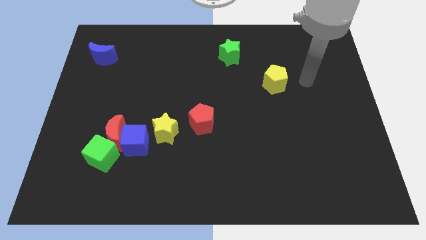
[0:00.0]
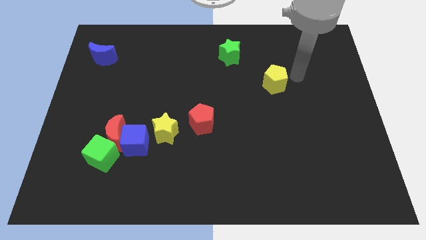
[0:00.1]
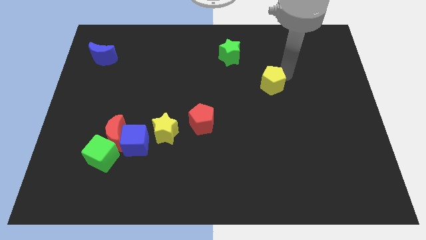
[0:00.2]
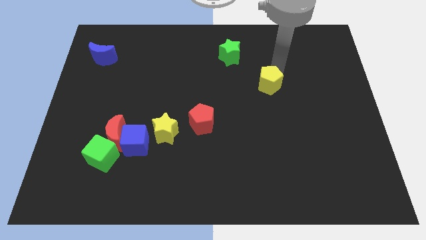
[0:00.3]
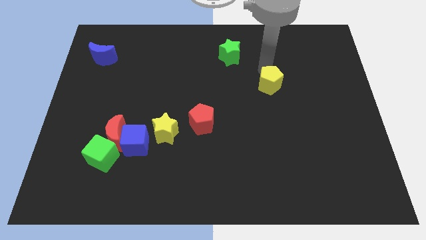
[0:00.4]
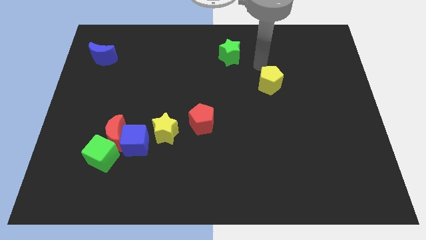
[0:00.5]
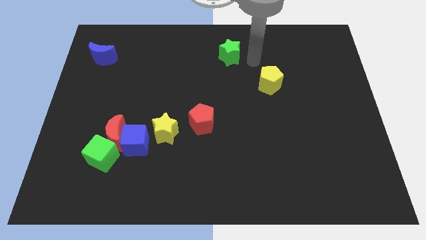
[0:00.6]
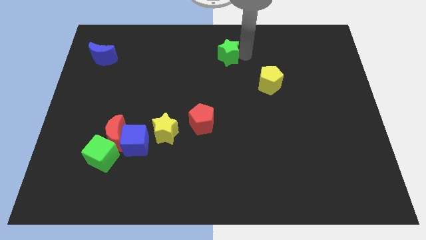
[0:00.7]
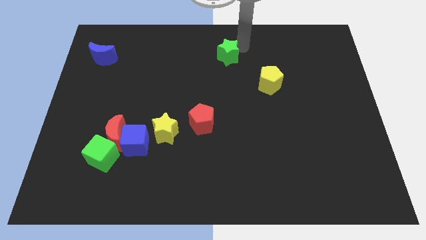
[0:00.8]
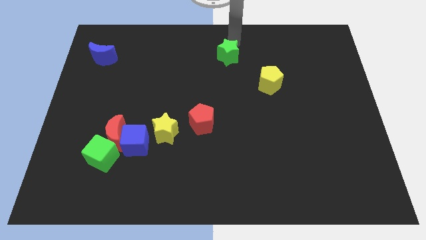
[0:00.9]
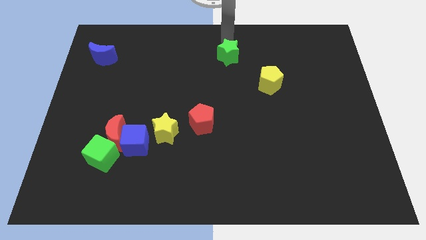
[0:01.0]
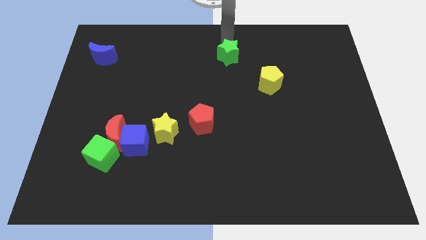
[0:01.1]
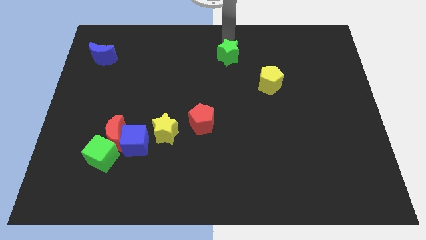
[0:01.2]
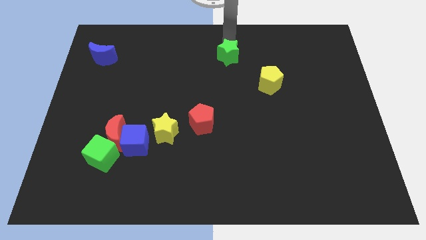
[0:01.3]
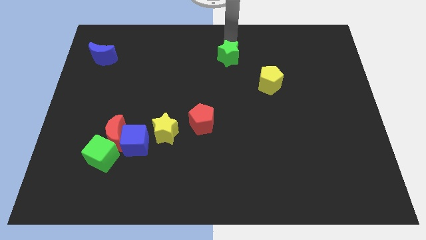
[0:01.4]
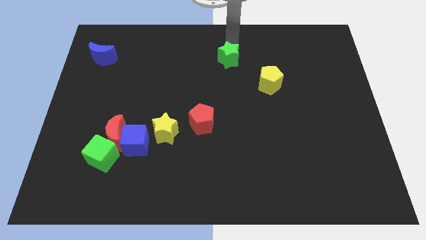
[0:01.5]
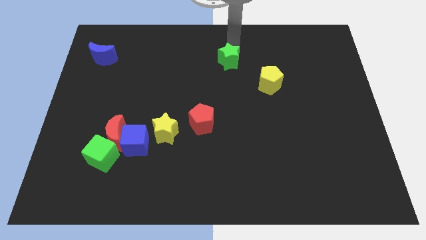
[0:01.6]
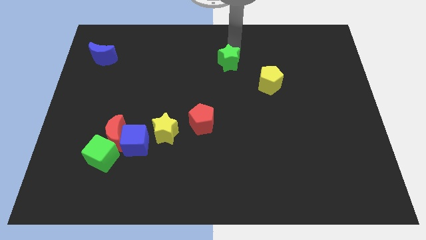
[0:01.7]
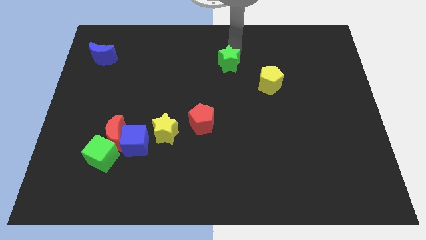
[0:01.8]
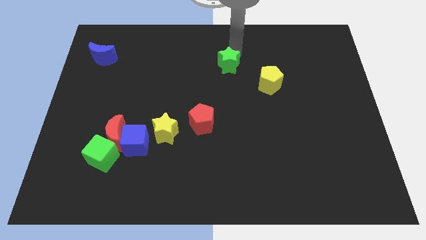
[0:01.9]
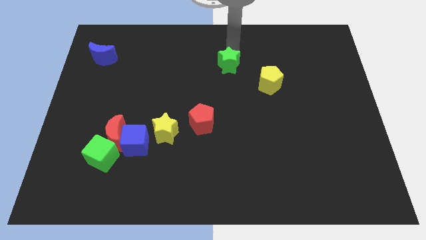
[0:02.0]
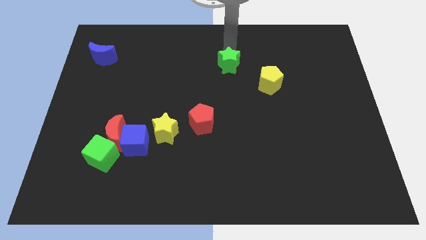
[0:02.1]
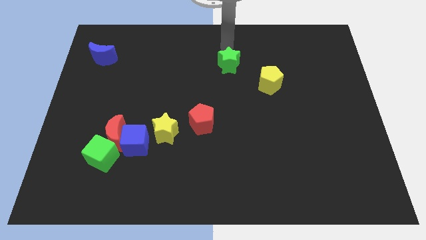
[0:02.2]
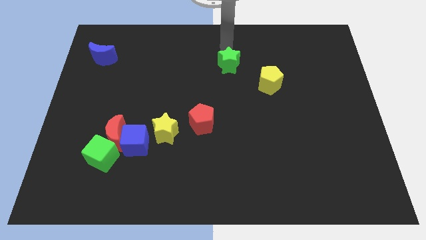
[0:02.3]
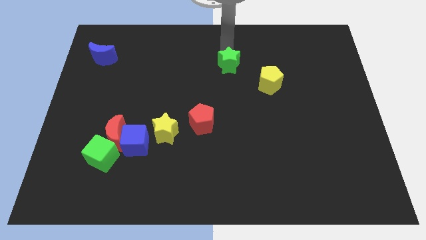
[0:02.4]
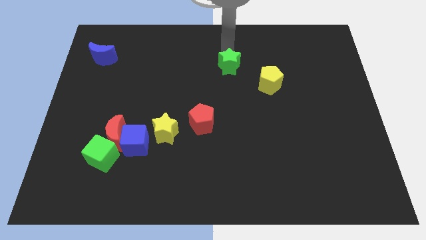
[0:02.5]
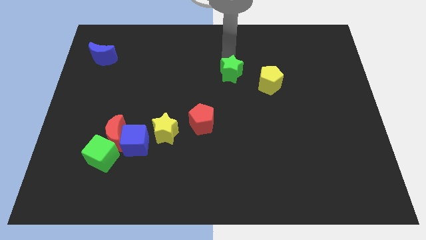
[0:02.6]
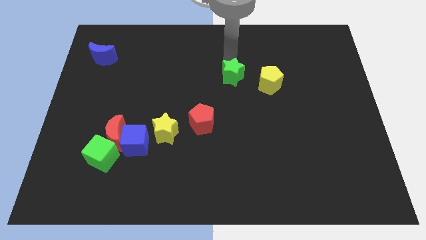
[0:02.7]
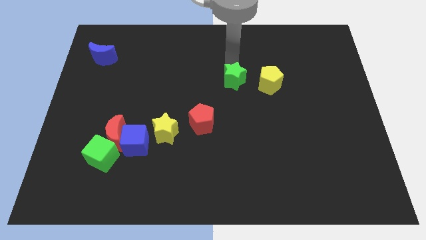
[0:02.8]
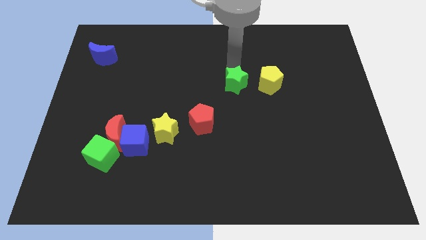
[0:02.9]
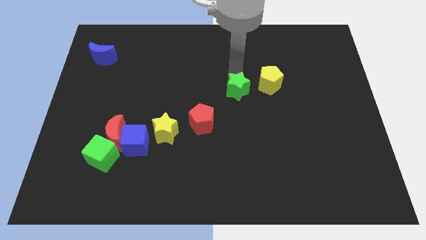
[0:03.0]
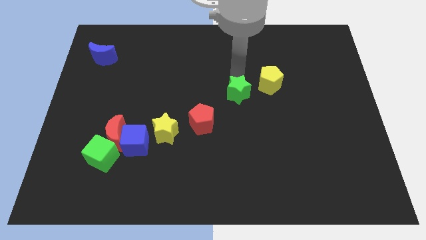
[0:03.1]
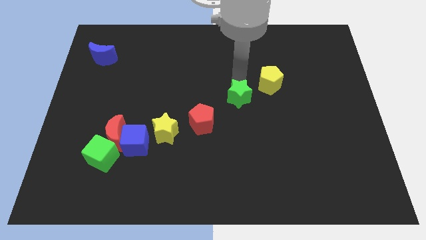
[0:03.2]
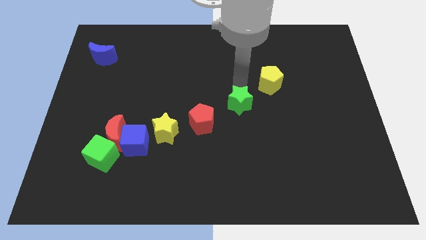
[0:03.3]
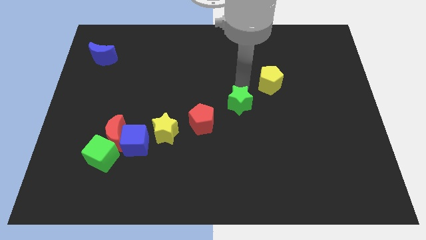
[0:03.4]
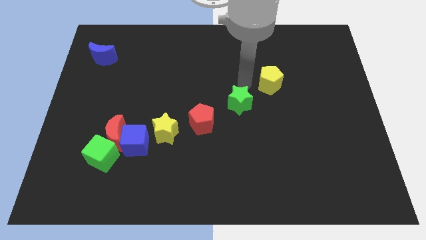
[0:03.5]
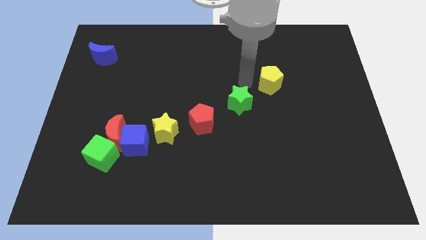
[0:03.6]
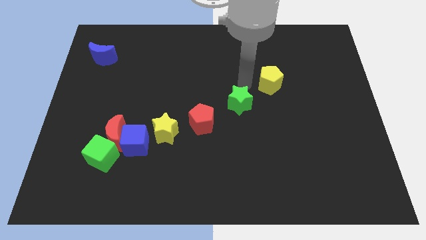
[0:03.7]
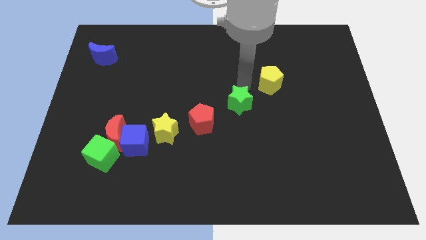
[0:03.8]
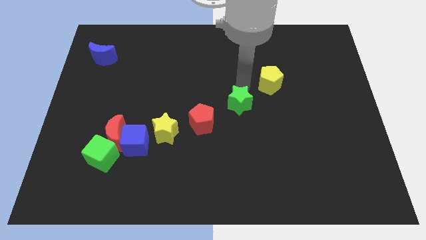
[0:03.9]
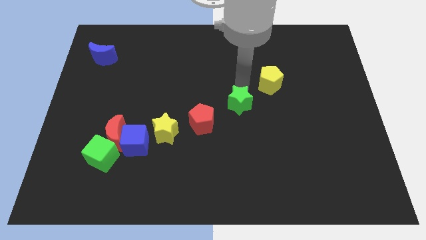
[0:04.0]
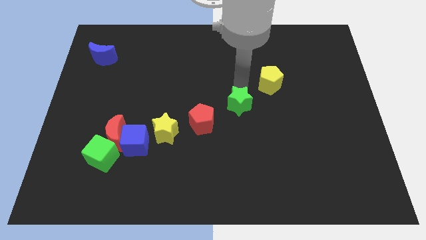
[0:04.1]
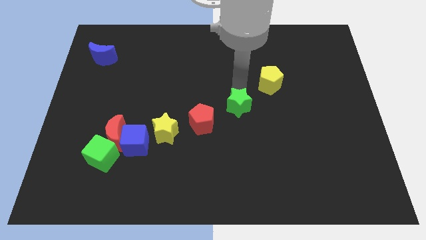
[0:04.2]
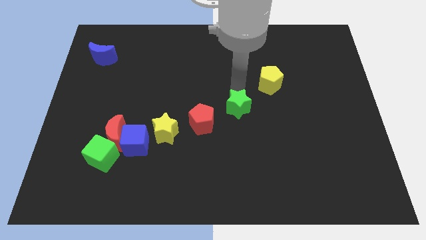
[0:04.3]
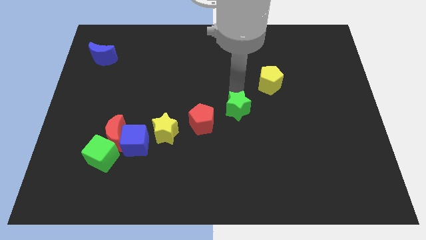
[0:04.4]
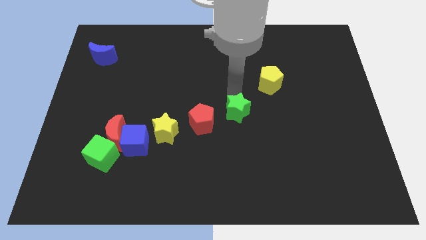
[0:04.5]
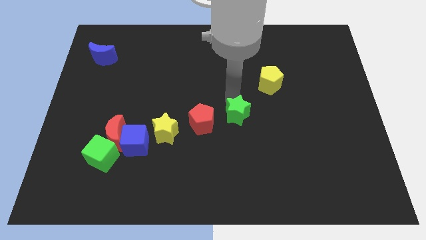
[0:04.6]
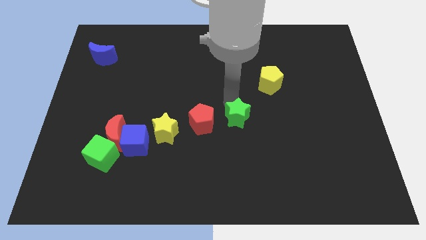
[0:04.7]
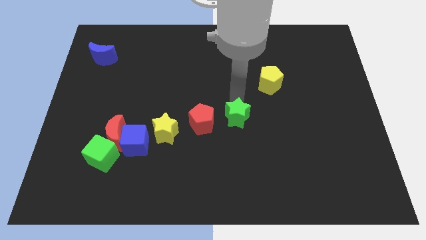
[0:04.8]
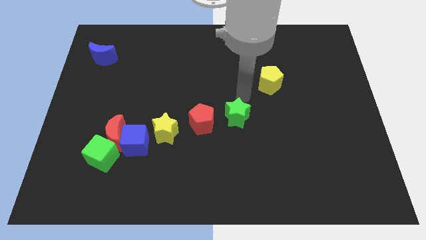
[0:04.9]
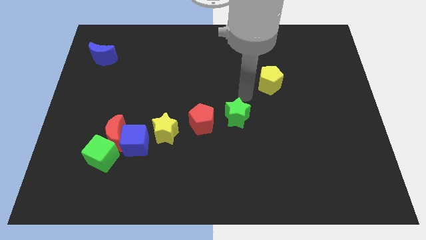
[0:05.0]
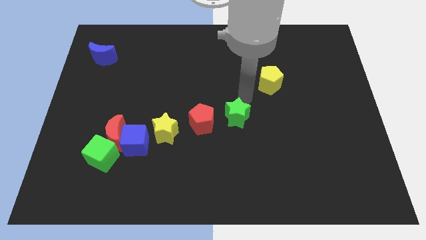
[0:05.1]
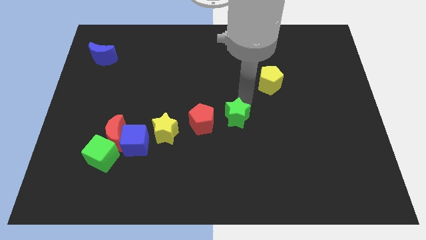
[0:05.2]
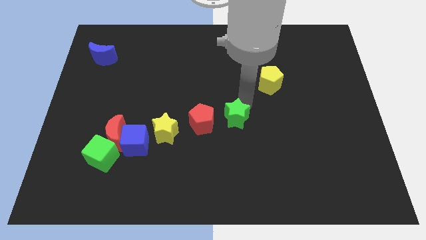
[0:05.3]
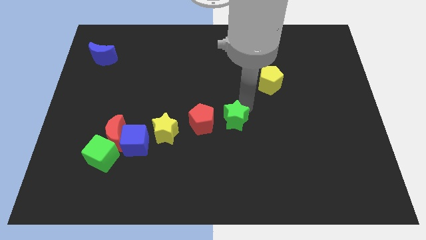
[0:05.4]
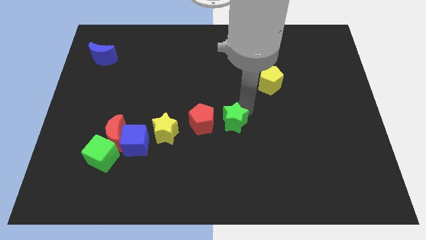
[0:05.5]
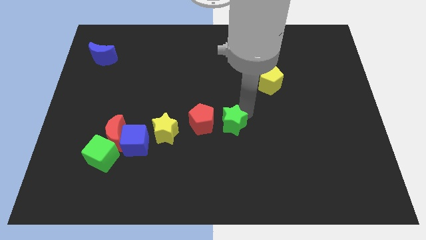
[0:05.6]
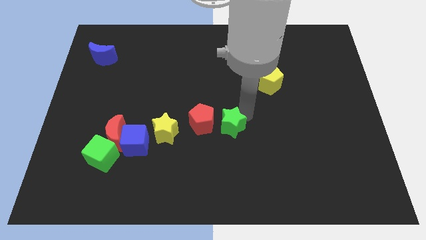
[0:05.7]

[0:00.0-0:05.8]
put the green star diagonally down and to the right of the red pentagon

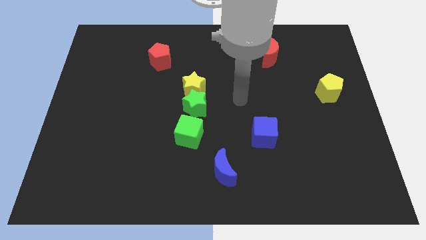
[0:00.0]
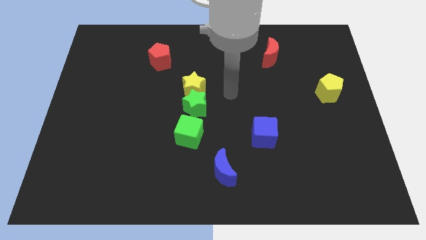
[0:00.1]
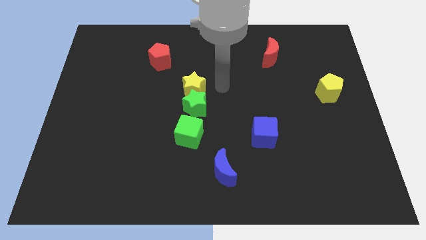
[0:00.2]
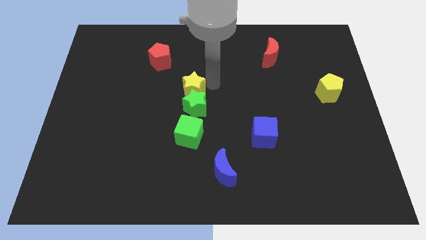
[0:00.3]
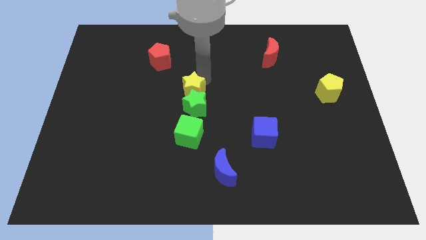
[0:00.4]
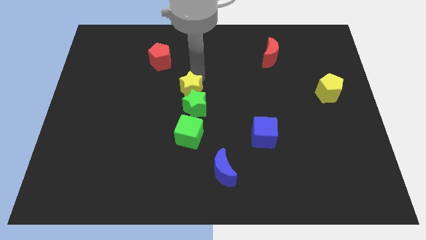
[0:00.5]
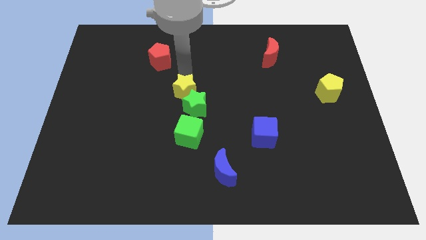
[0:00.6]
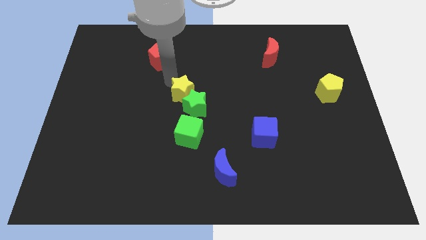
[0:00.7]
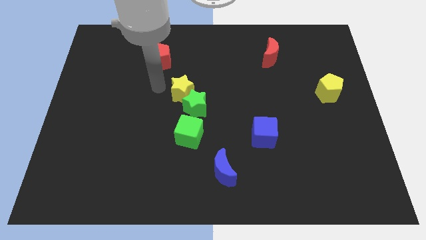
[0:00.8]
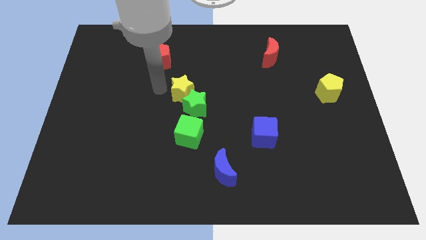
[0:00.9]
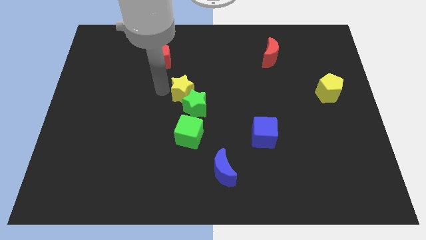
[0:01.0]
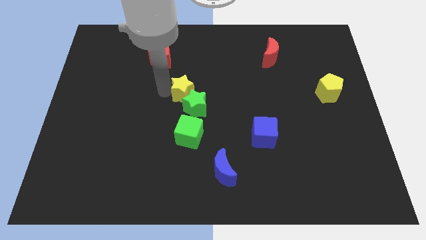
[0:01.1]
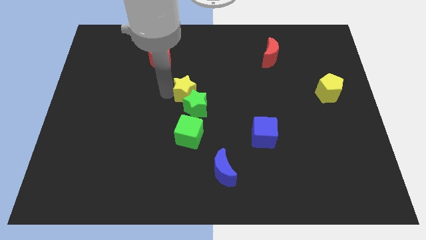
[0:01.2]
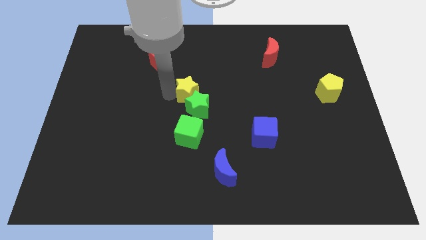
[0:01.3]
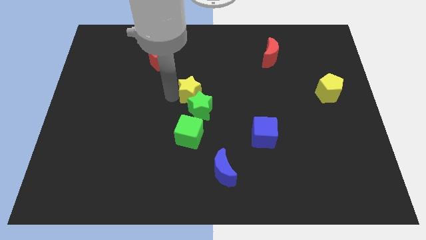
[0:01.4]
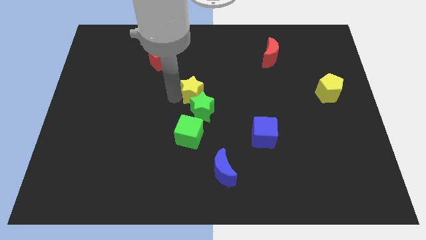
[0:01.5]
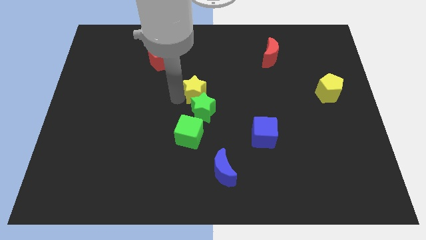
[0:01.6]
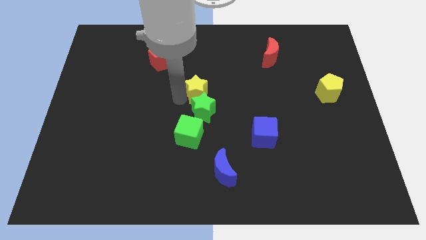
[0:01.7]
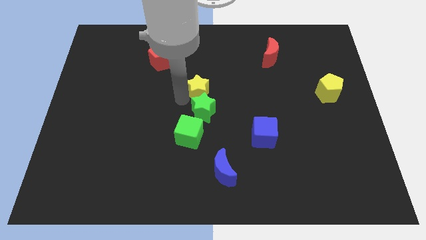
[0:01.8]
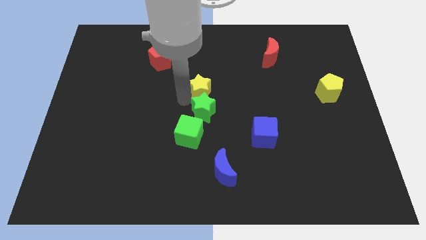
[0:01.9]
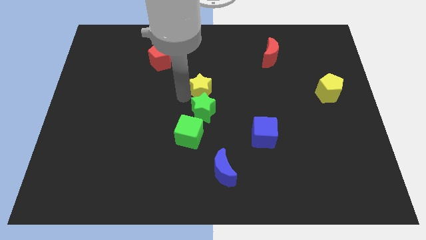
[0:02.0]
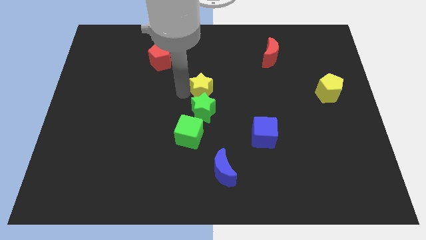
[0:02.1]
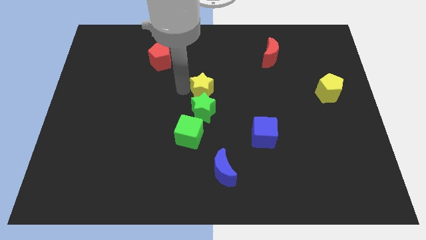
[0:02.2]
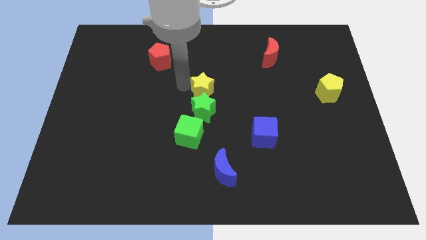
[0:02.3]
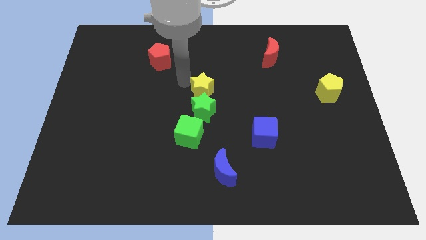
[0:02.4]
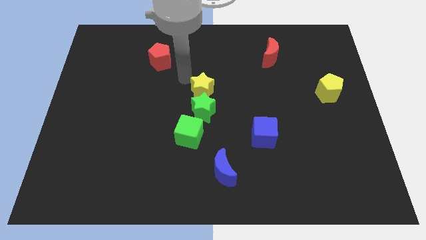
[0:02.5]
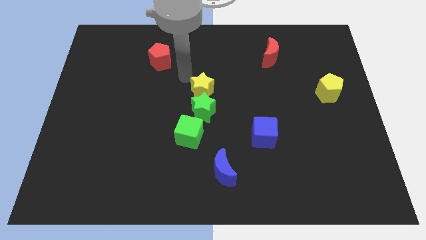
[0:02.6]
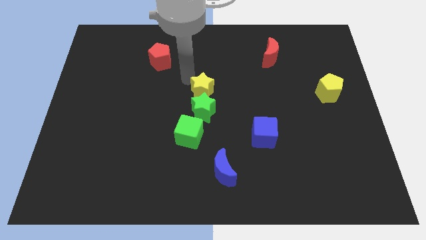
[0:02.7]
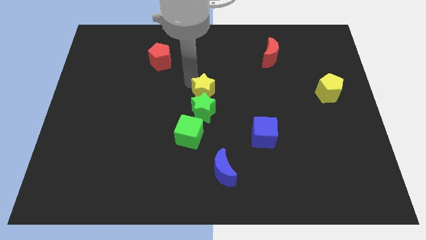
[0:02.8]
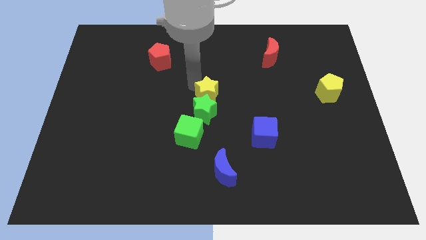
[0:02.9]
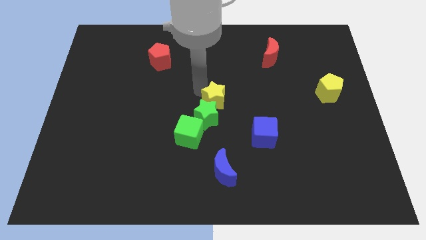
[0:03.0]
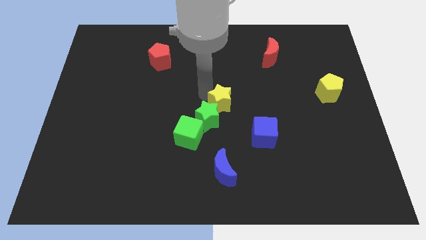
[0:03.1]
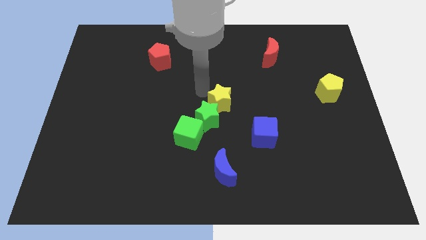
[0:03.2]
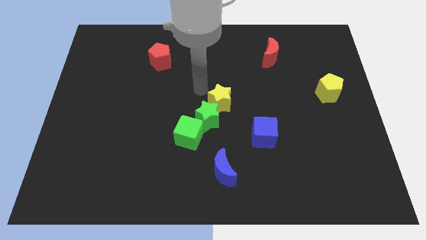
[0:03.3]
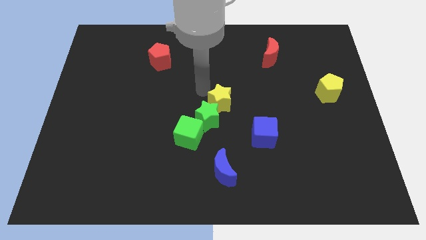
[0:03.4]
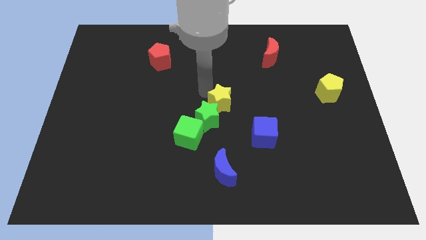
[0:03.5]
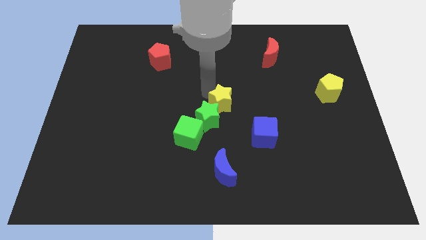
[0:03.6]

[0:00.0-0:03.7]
push the yellow star diagonally up and to the left of the blue cube
